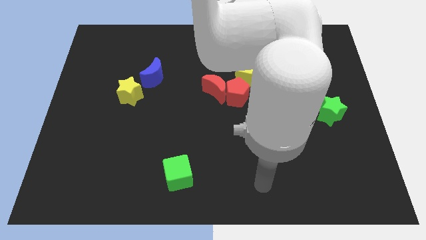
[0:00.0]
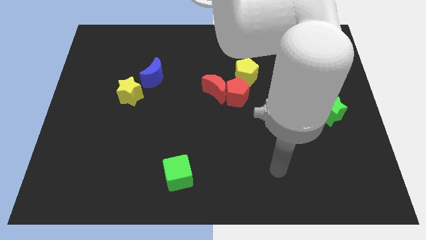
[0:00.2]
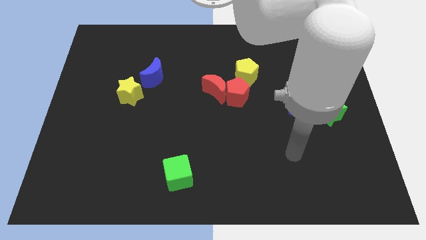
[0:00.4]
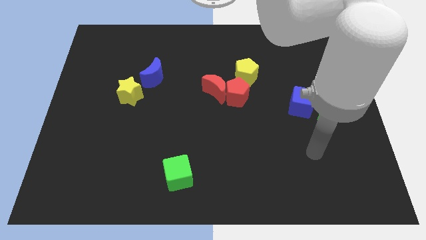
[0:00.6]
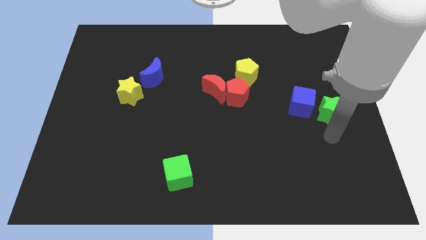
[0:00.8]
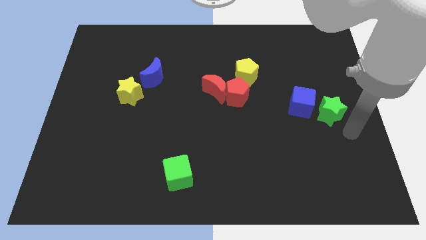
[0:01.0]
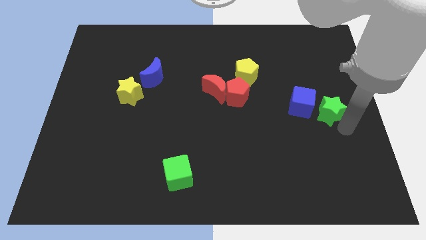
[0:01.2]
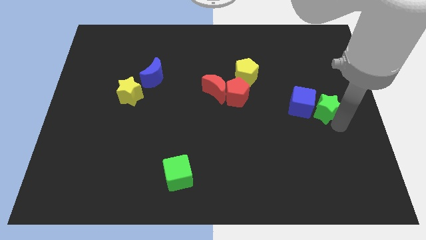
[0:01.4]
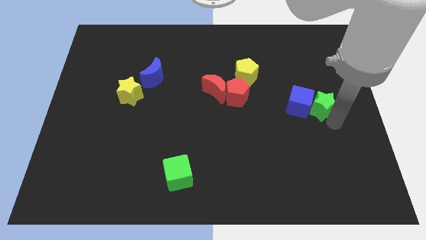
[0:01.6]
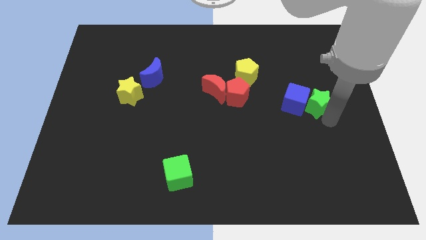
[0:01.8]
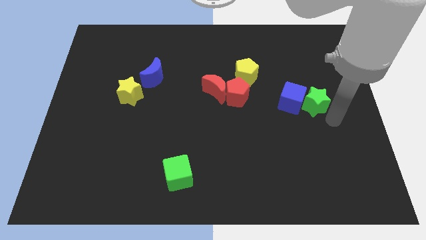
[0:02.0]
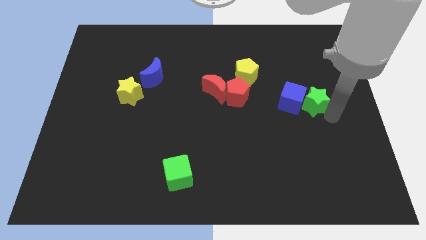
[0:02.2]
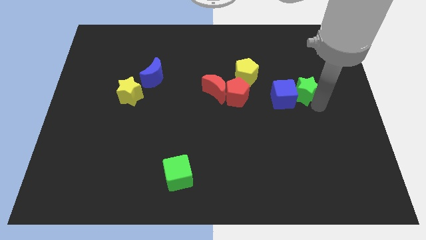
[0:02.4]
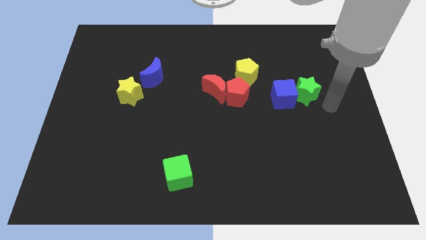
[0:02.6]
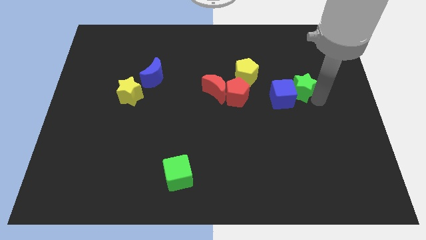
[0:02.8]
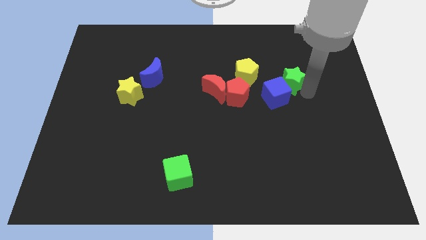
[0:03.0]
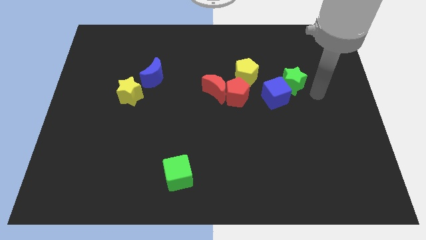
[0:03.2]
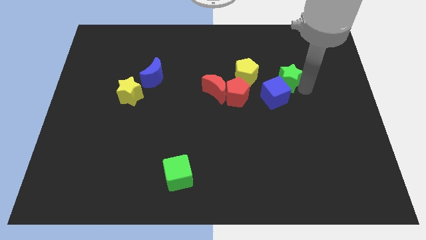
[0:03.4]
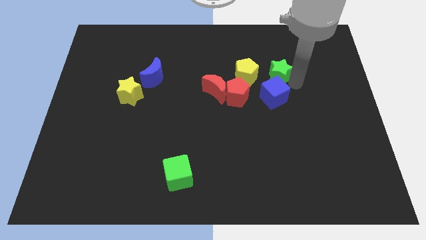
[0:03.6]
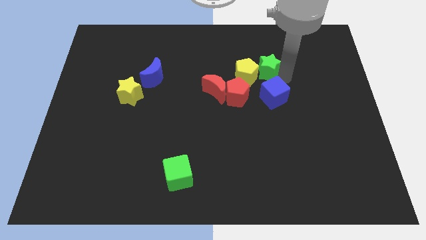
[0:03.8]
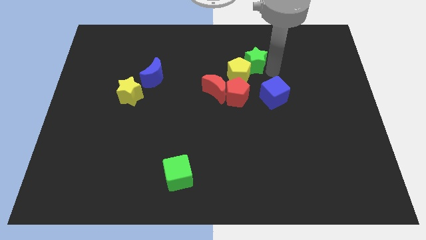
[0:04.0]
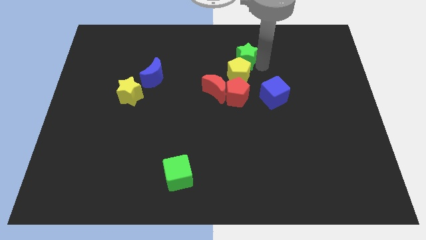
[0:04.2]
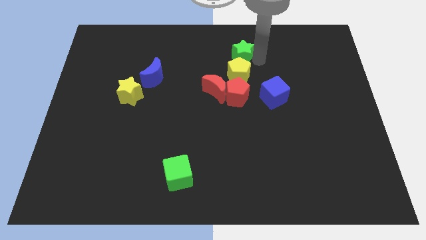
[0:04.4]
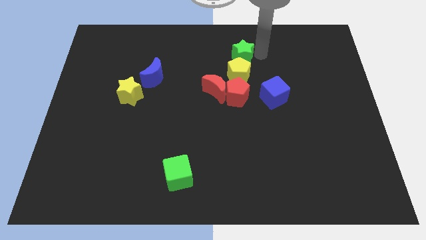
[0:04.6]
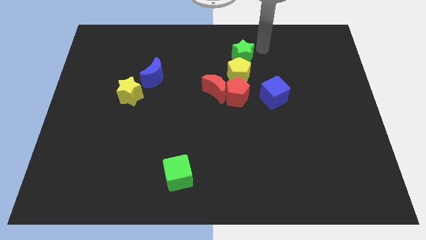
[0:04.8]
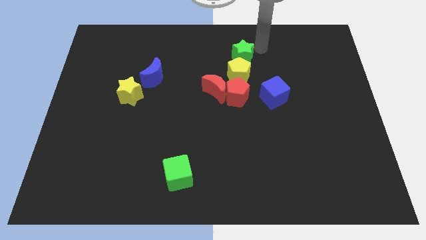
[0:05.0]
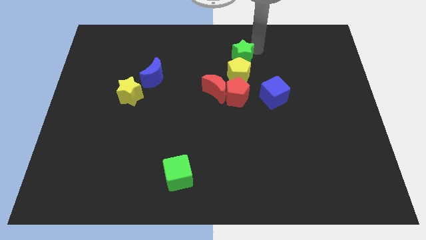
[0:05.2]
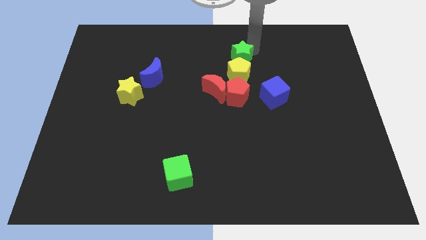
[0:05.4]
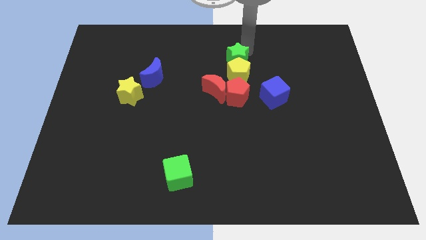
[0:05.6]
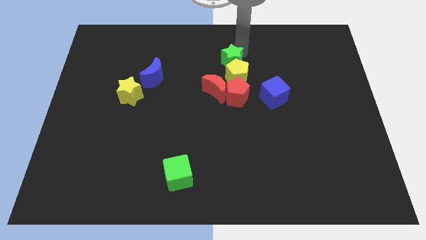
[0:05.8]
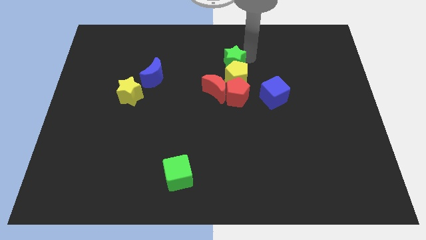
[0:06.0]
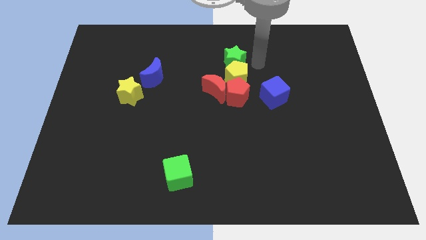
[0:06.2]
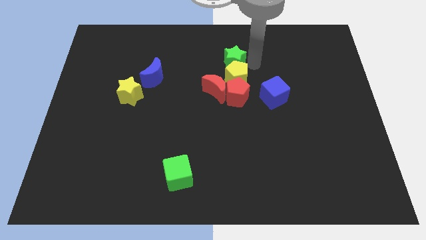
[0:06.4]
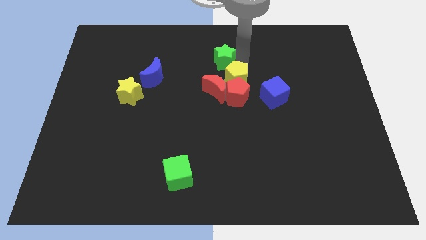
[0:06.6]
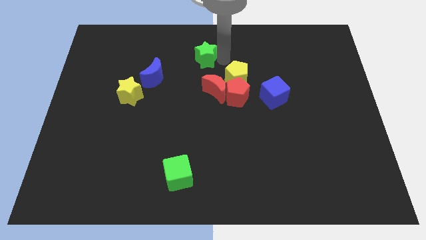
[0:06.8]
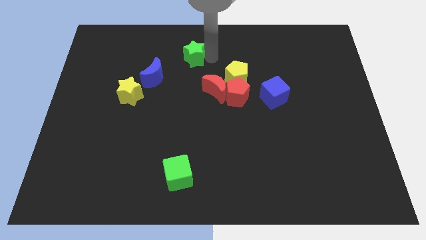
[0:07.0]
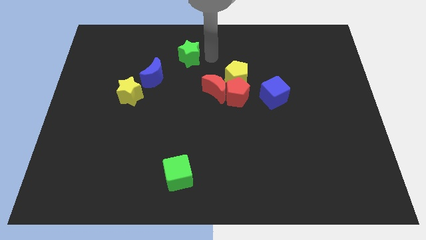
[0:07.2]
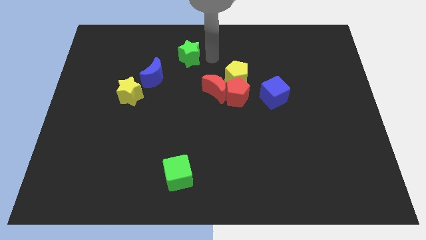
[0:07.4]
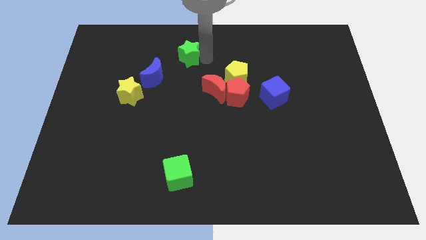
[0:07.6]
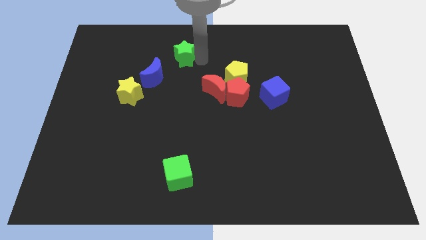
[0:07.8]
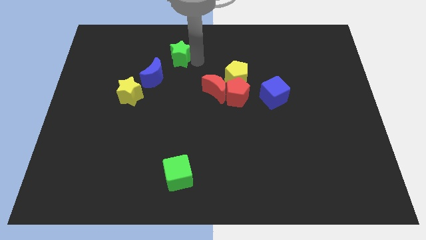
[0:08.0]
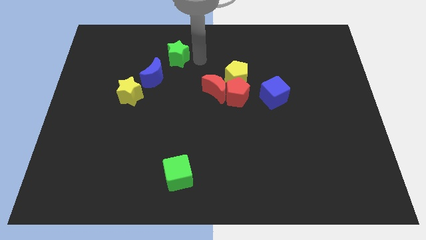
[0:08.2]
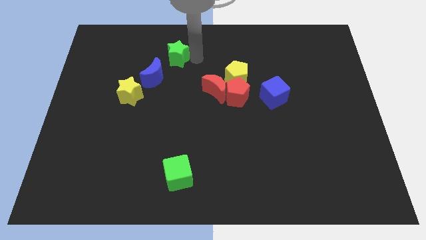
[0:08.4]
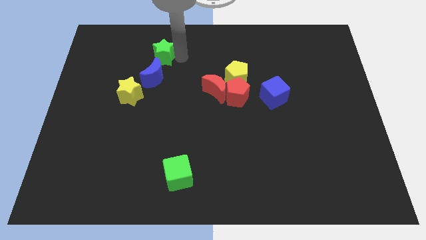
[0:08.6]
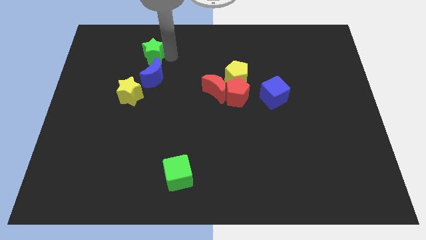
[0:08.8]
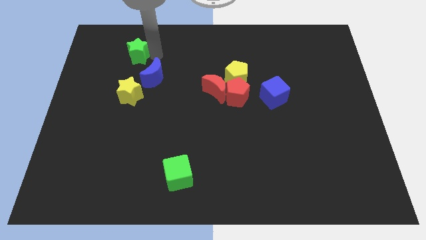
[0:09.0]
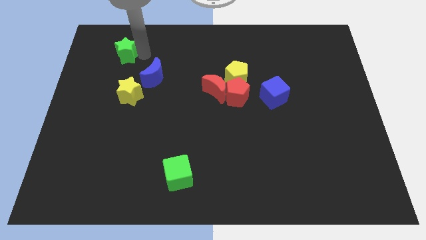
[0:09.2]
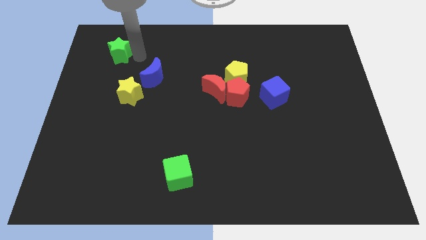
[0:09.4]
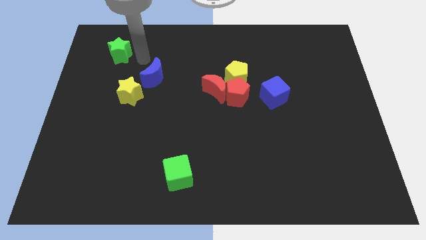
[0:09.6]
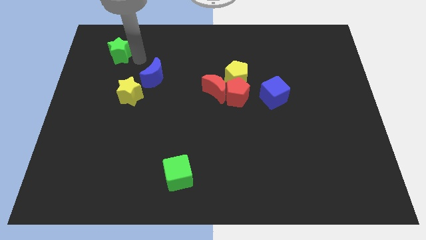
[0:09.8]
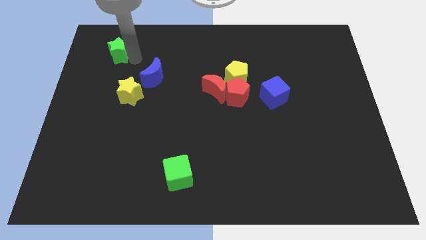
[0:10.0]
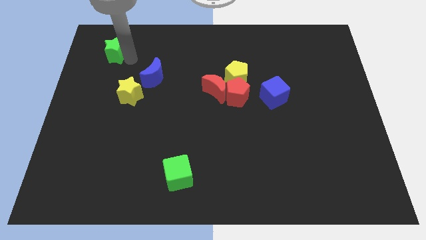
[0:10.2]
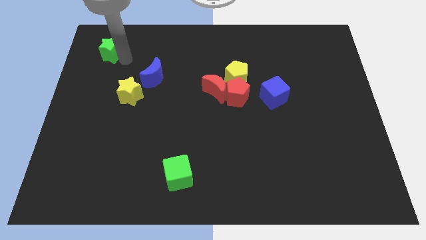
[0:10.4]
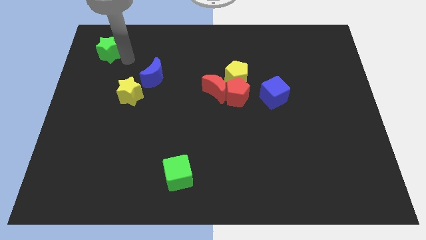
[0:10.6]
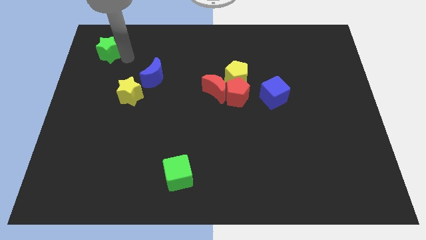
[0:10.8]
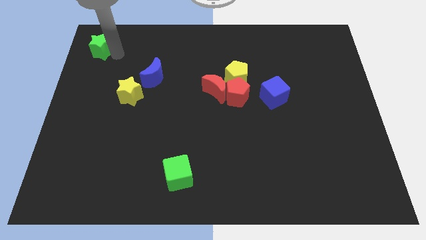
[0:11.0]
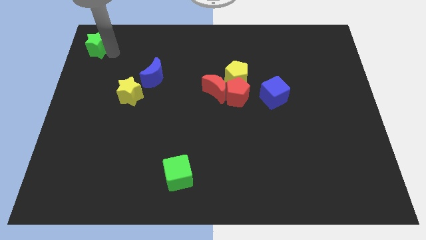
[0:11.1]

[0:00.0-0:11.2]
push the green star to the top left of the board

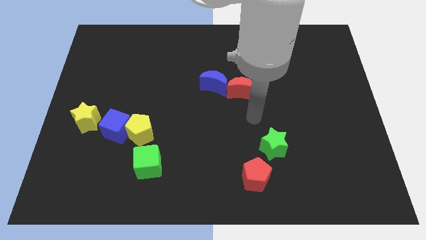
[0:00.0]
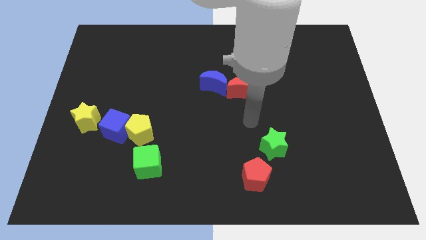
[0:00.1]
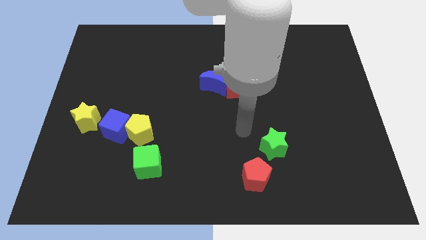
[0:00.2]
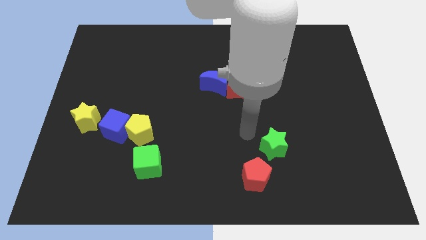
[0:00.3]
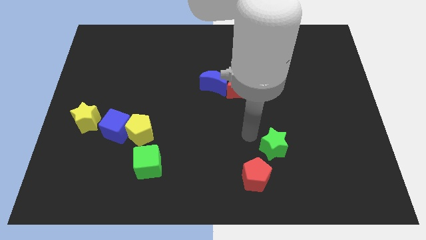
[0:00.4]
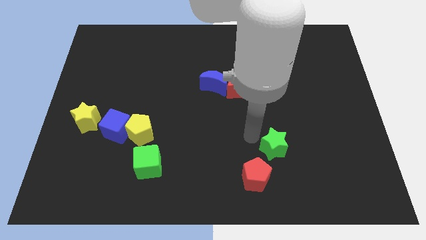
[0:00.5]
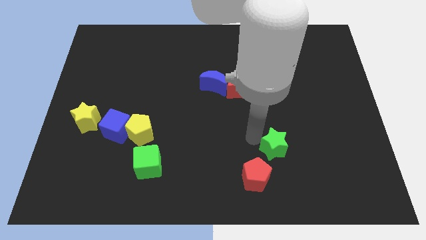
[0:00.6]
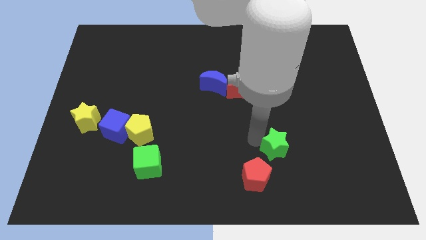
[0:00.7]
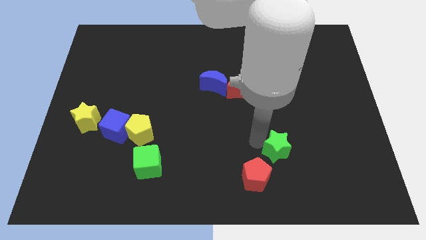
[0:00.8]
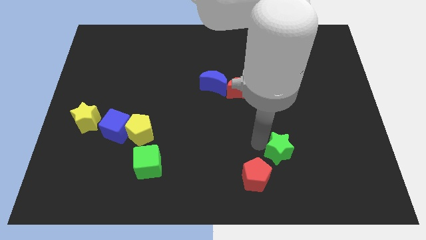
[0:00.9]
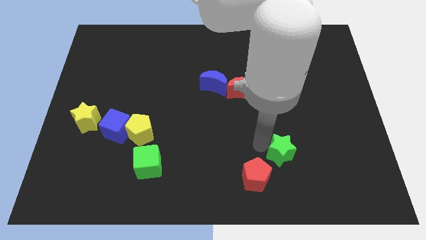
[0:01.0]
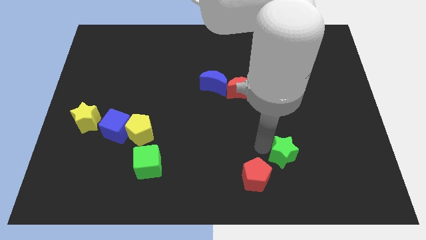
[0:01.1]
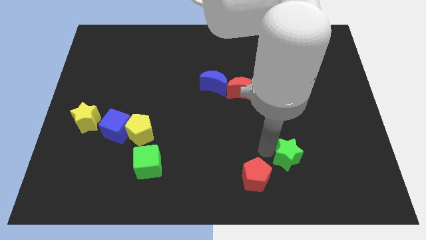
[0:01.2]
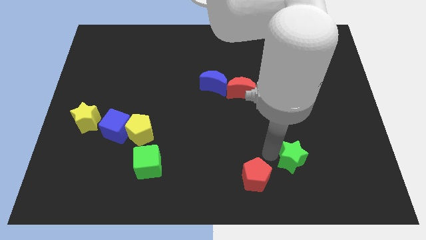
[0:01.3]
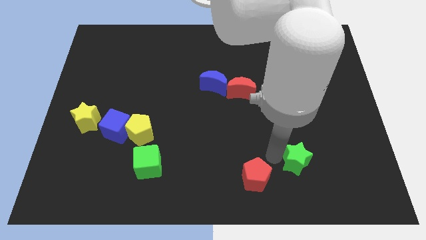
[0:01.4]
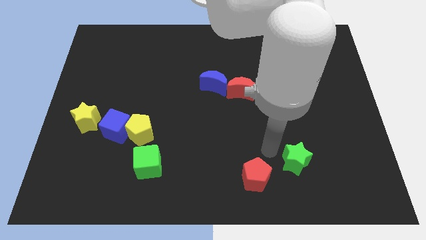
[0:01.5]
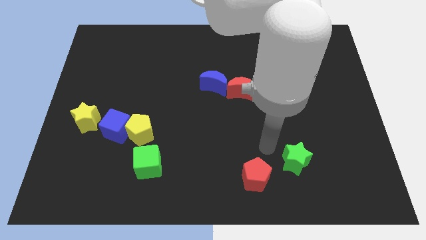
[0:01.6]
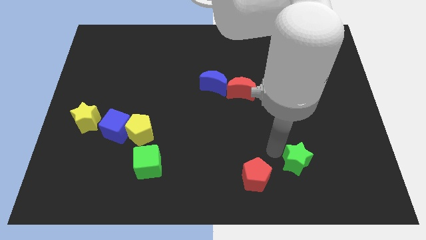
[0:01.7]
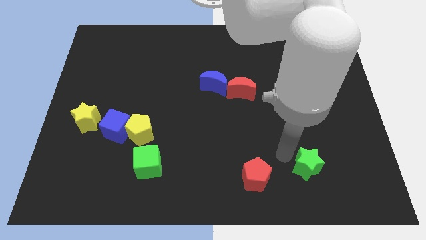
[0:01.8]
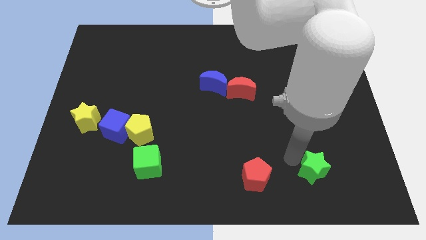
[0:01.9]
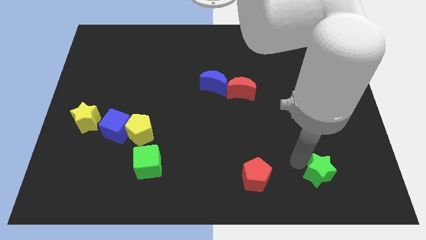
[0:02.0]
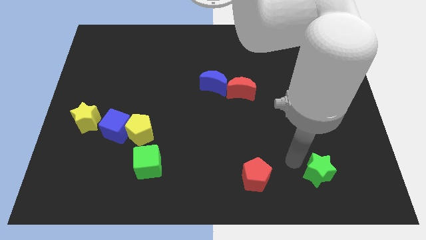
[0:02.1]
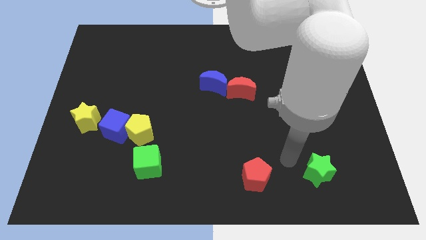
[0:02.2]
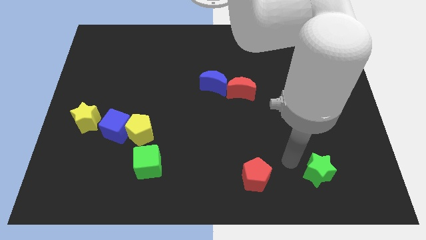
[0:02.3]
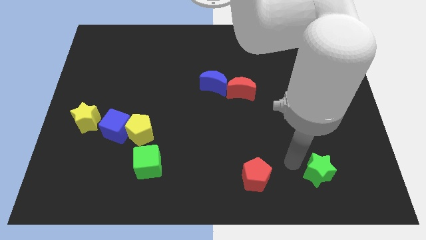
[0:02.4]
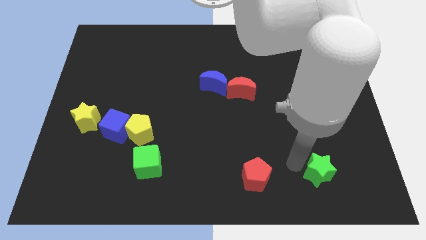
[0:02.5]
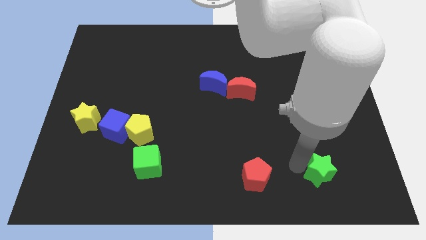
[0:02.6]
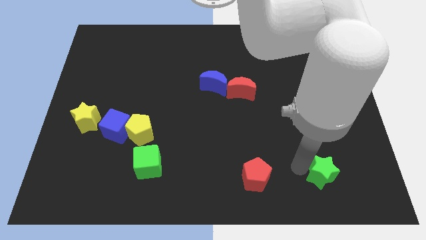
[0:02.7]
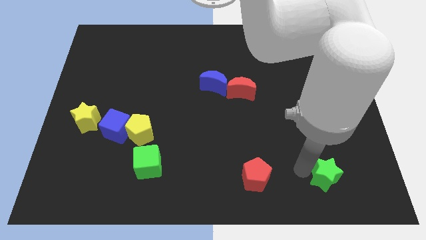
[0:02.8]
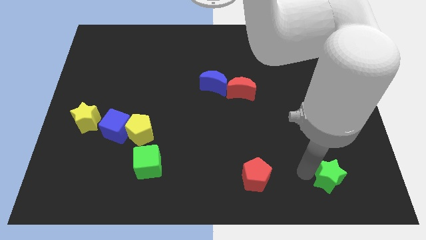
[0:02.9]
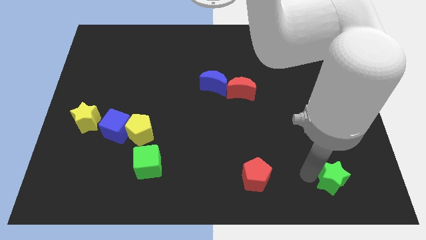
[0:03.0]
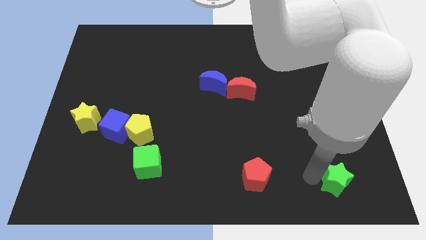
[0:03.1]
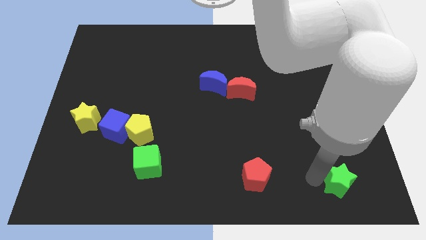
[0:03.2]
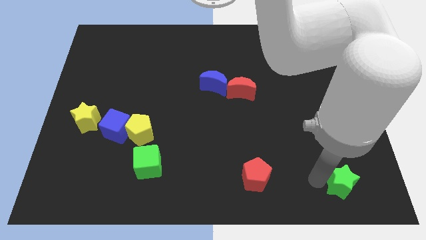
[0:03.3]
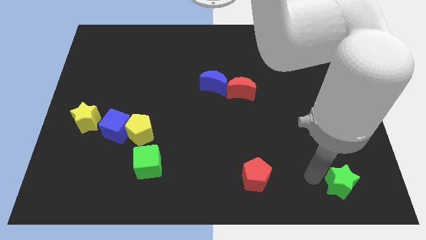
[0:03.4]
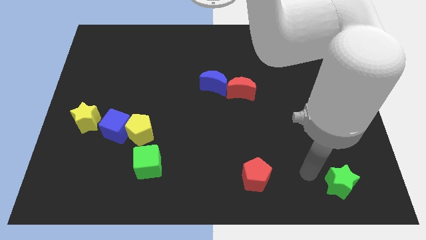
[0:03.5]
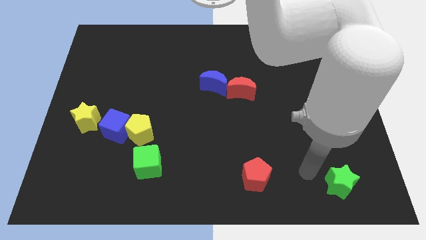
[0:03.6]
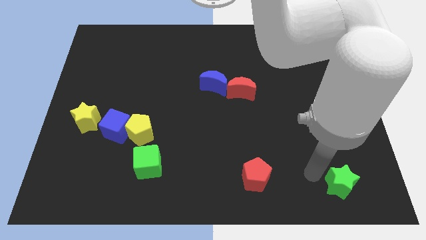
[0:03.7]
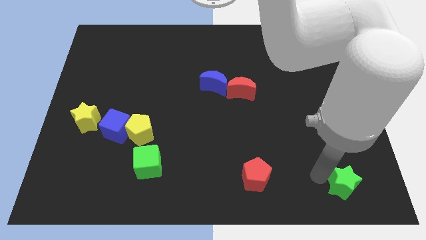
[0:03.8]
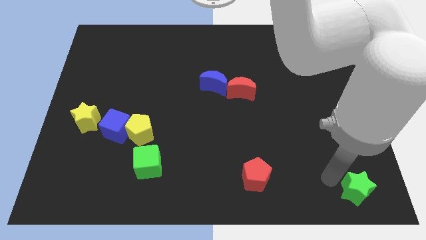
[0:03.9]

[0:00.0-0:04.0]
put the green star to the bottom right
